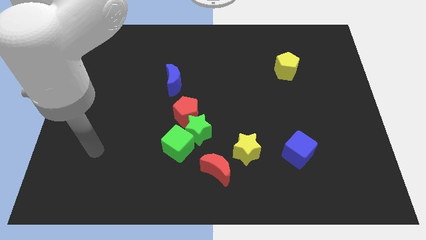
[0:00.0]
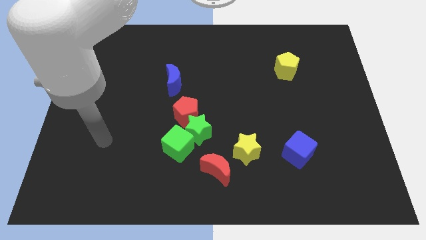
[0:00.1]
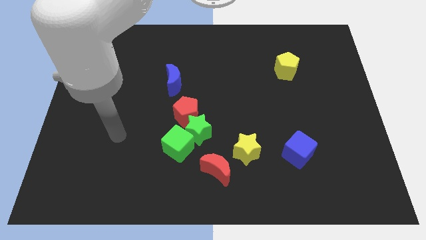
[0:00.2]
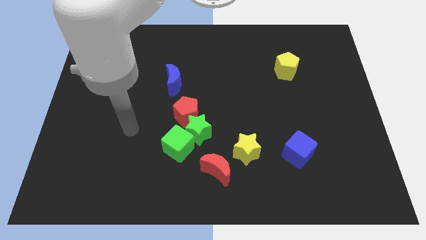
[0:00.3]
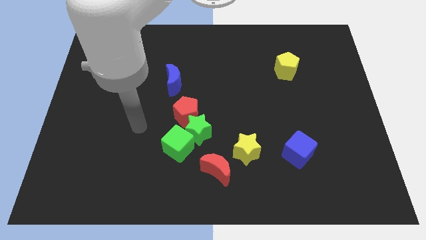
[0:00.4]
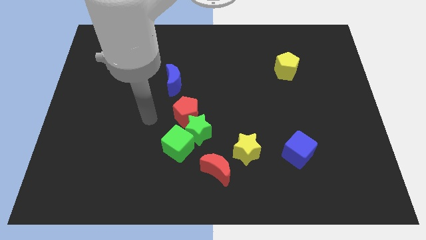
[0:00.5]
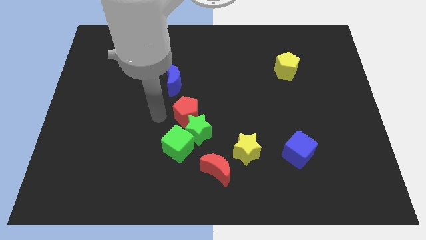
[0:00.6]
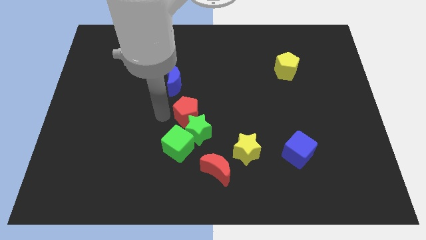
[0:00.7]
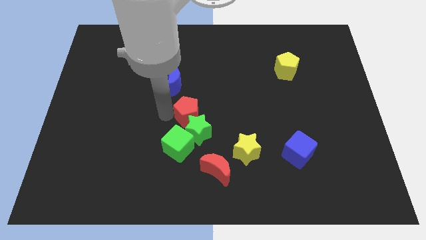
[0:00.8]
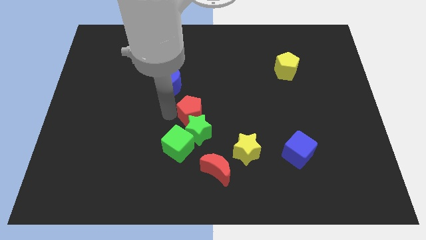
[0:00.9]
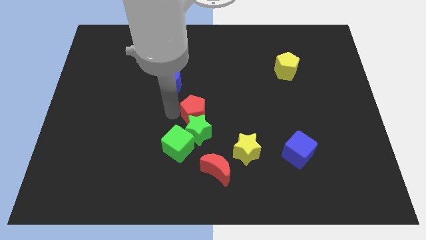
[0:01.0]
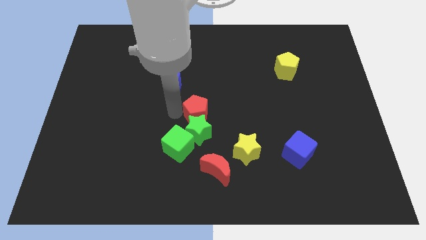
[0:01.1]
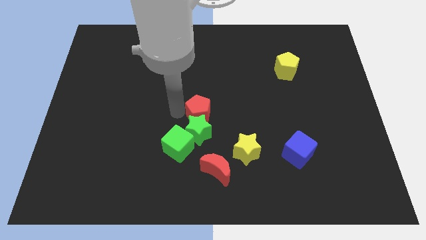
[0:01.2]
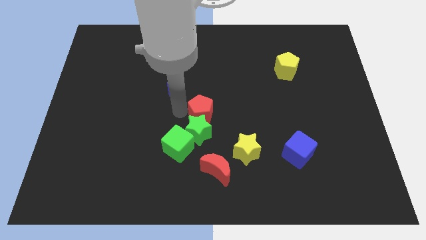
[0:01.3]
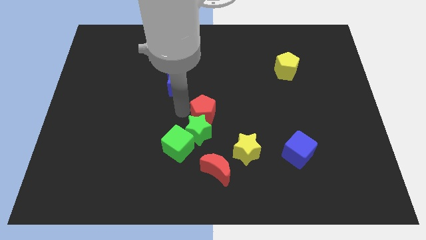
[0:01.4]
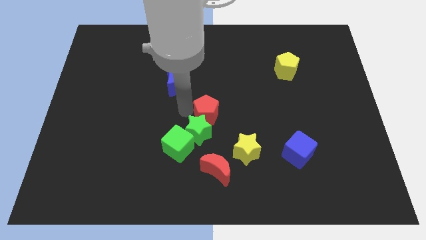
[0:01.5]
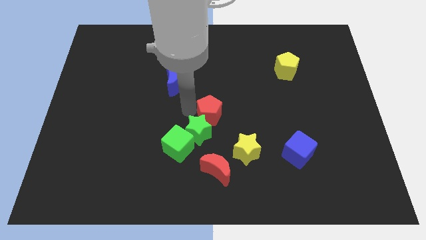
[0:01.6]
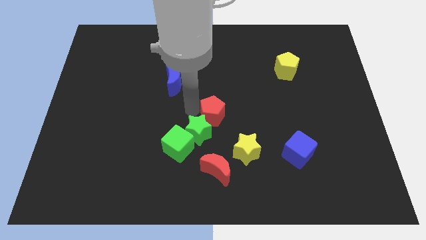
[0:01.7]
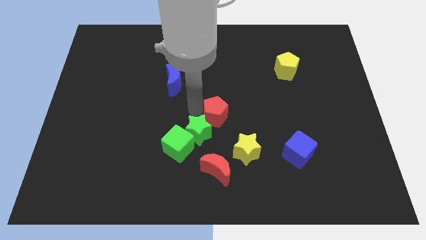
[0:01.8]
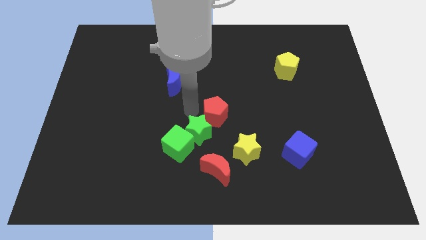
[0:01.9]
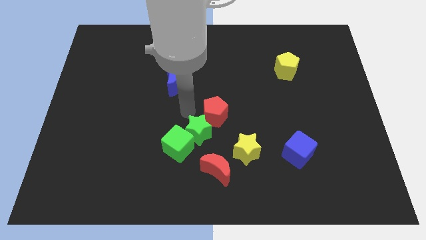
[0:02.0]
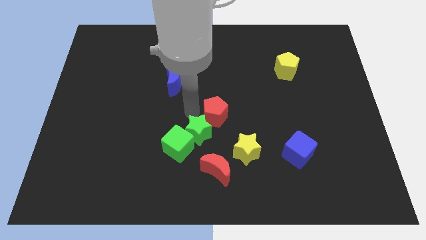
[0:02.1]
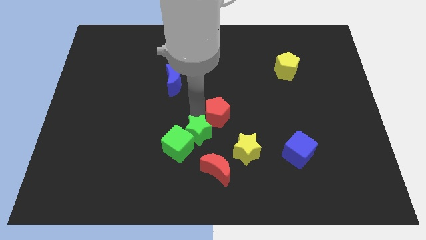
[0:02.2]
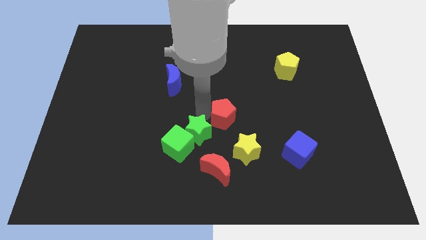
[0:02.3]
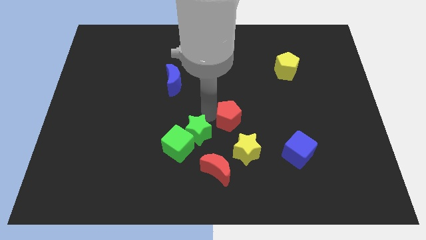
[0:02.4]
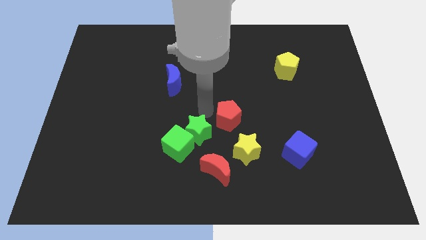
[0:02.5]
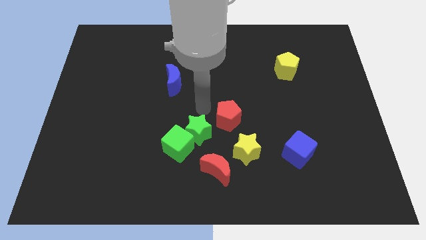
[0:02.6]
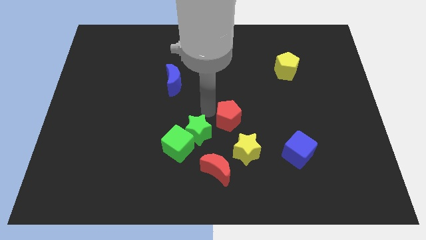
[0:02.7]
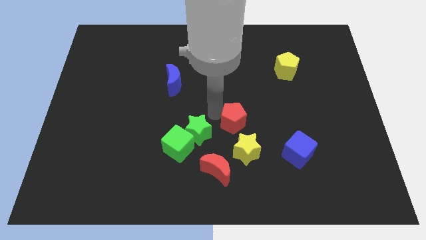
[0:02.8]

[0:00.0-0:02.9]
slightly push the red pentagon down and then right

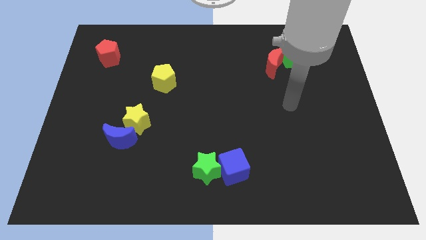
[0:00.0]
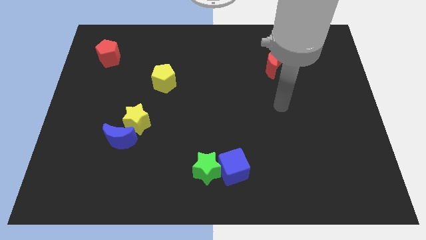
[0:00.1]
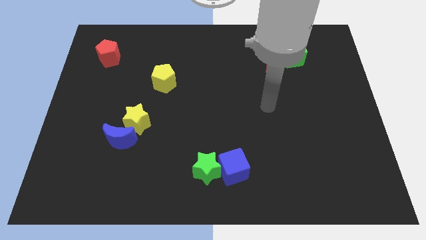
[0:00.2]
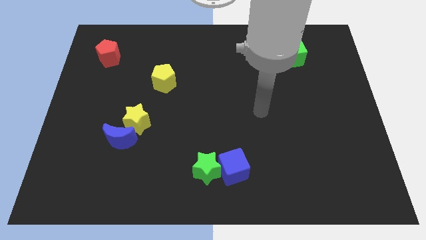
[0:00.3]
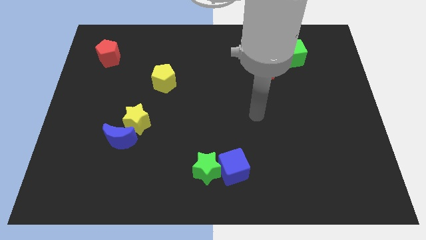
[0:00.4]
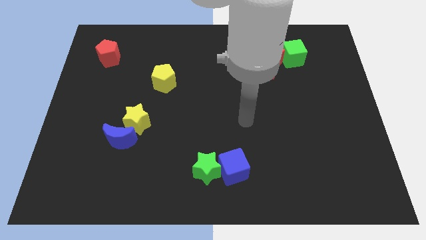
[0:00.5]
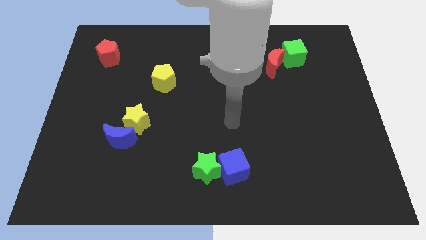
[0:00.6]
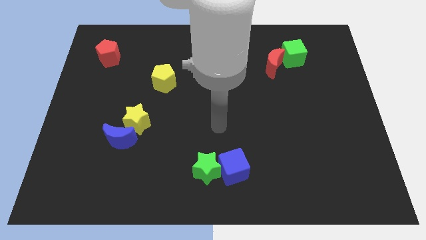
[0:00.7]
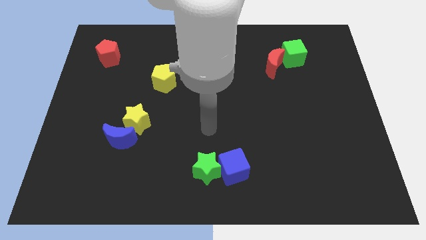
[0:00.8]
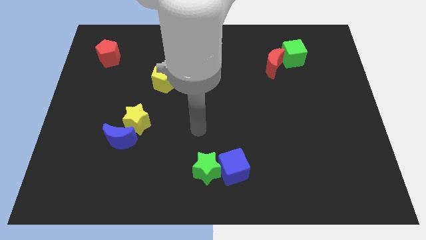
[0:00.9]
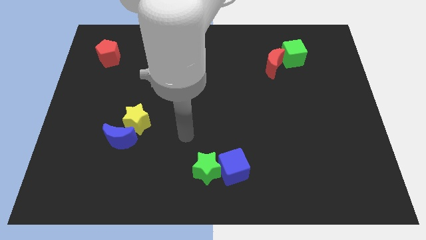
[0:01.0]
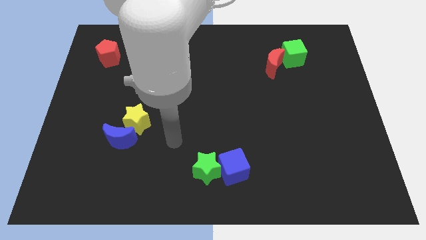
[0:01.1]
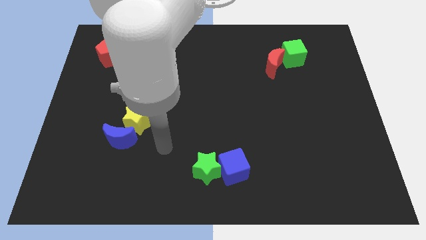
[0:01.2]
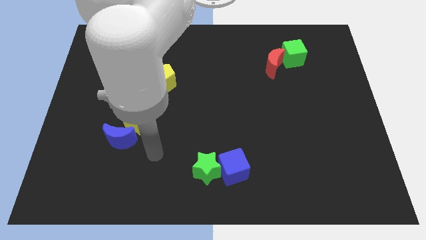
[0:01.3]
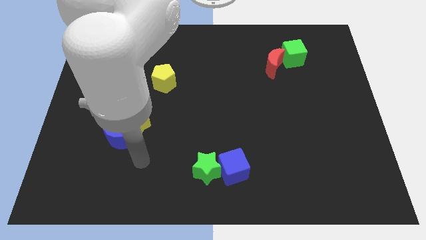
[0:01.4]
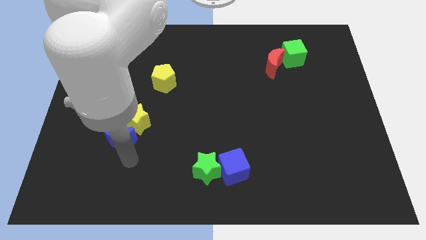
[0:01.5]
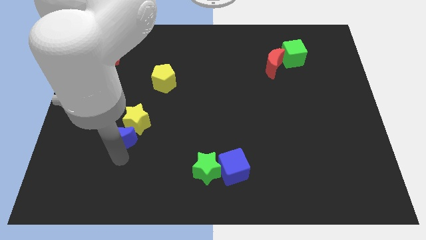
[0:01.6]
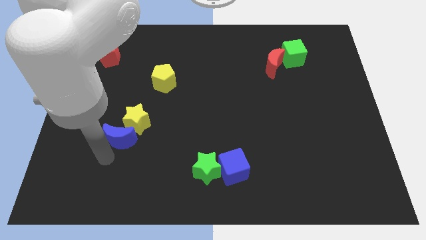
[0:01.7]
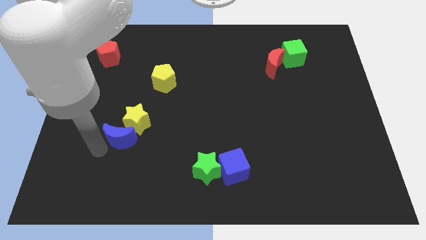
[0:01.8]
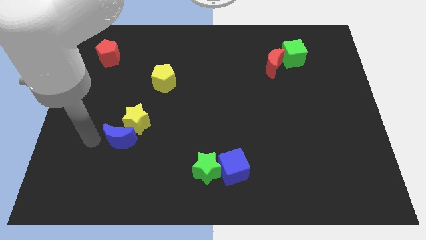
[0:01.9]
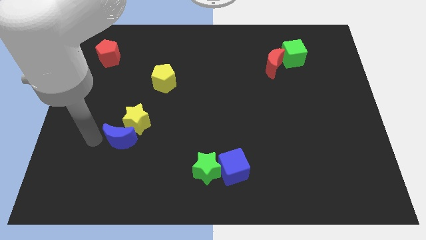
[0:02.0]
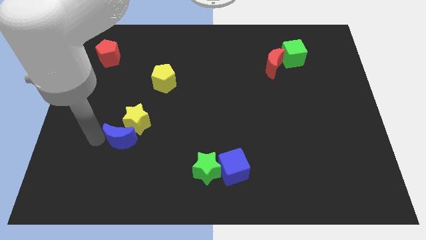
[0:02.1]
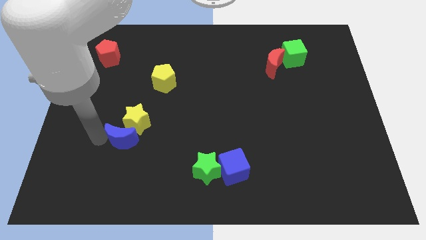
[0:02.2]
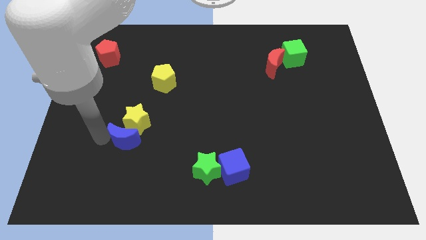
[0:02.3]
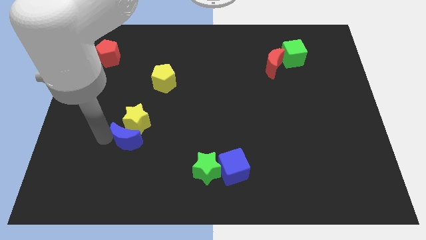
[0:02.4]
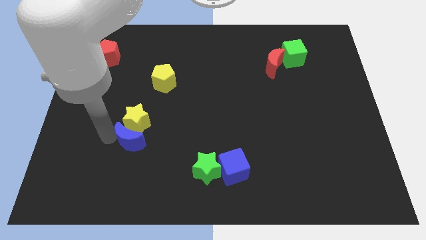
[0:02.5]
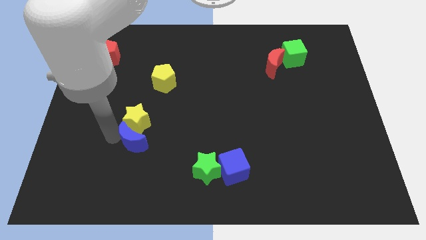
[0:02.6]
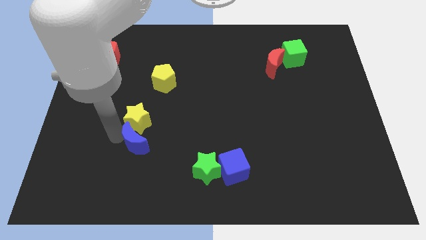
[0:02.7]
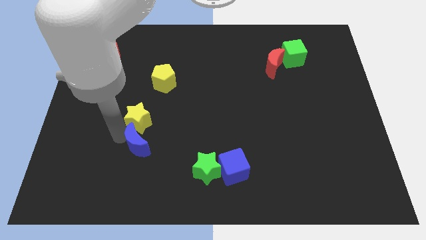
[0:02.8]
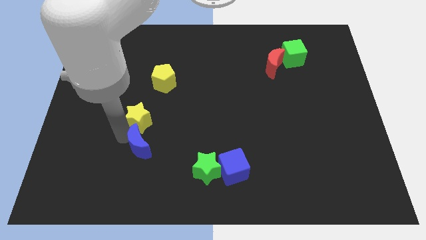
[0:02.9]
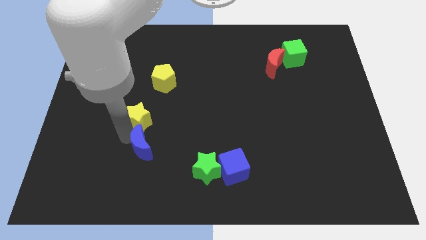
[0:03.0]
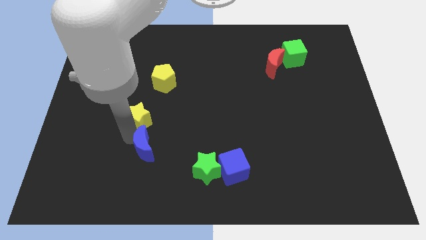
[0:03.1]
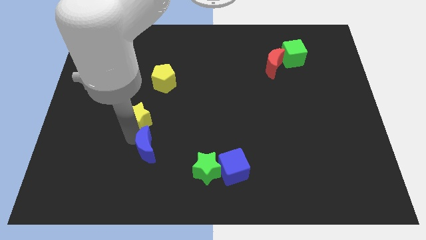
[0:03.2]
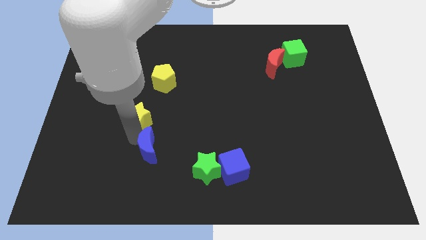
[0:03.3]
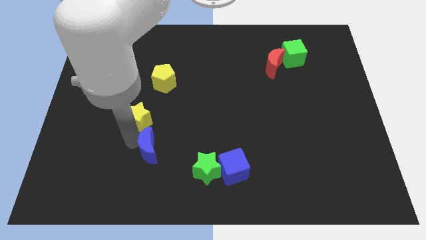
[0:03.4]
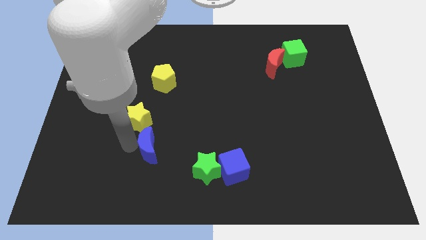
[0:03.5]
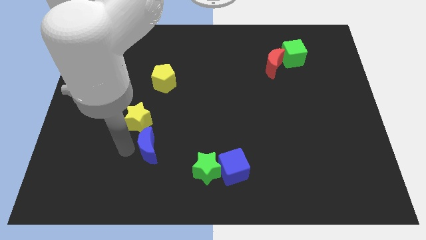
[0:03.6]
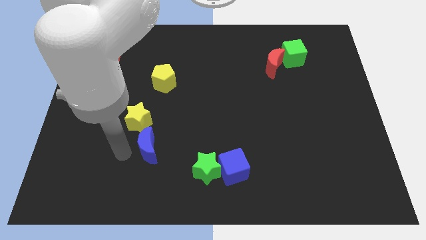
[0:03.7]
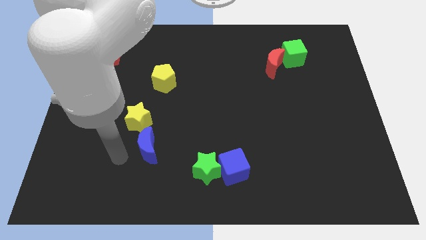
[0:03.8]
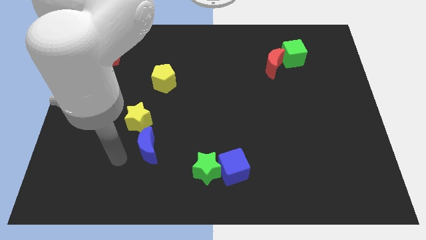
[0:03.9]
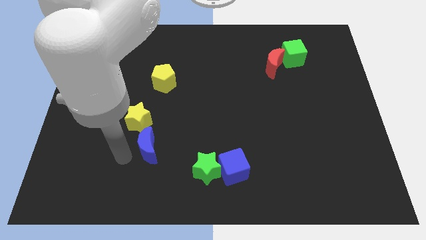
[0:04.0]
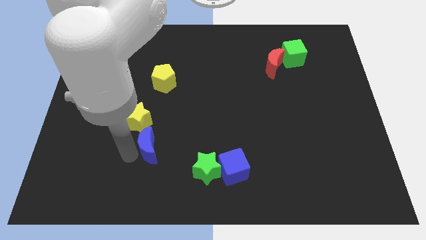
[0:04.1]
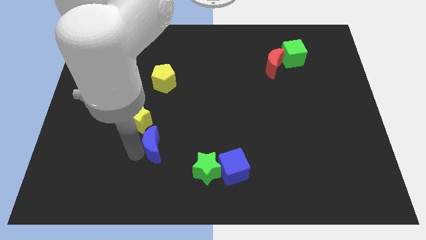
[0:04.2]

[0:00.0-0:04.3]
slide the blue moon a little to the right

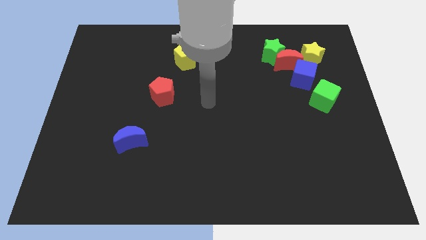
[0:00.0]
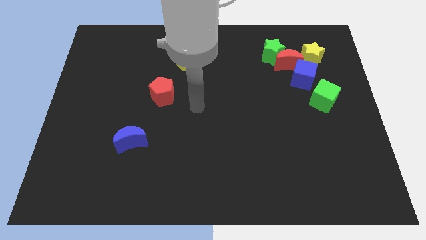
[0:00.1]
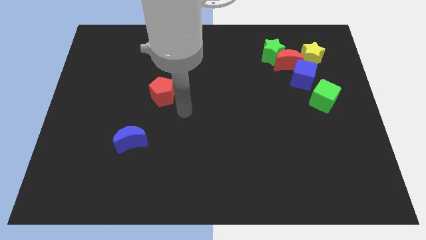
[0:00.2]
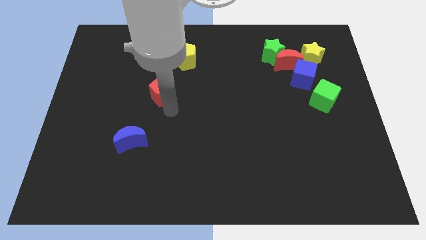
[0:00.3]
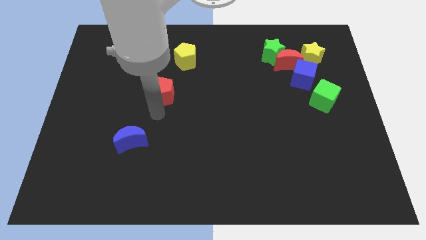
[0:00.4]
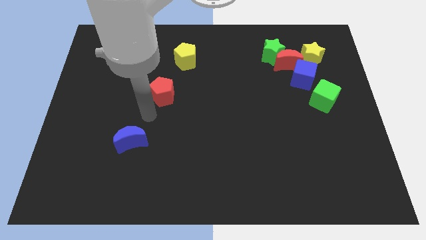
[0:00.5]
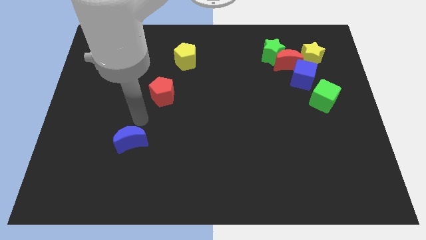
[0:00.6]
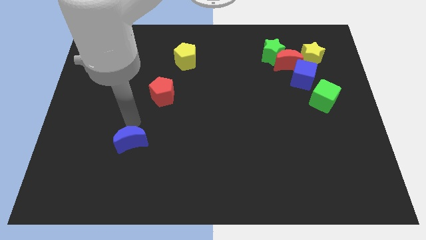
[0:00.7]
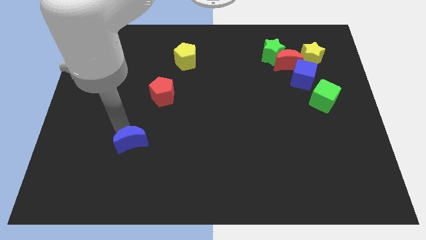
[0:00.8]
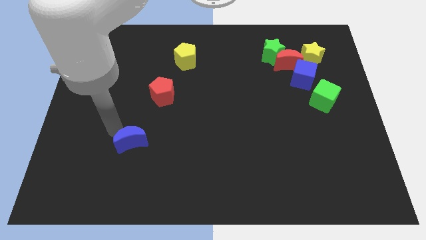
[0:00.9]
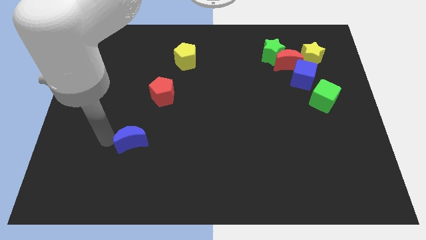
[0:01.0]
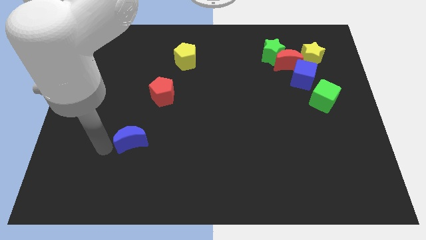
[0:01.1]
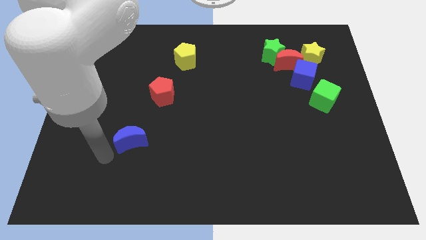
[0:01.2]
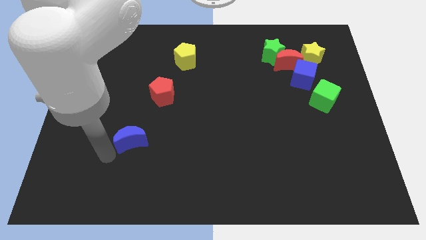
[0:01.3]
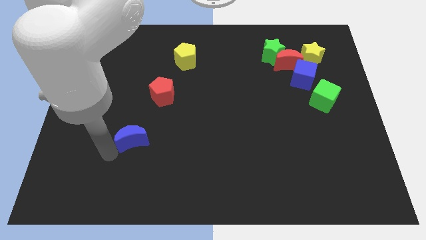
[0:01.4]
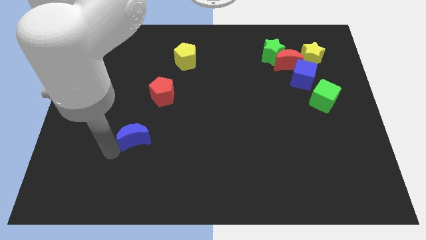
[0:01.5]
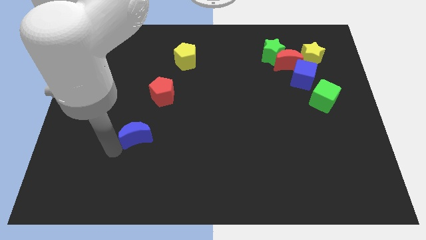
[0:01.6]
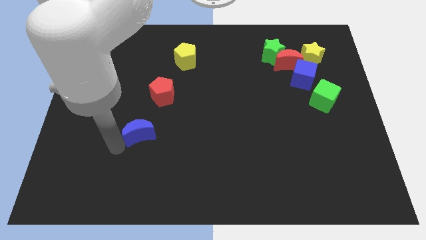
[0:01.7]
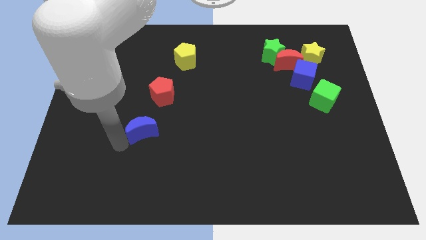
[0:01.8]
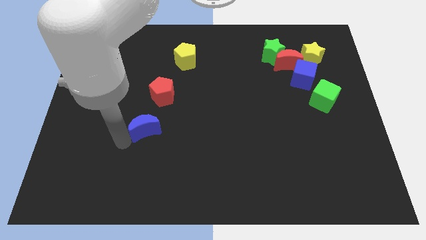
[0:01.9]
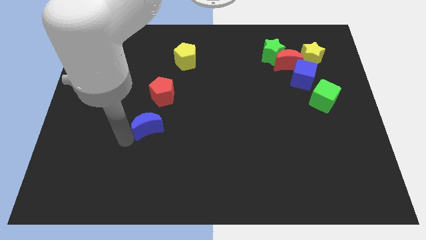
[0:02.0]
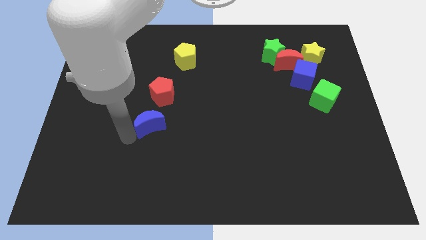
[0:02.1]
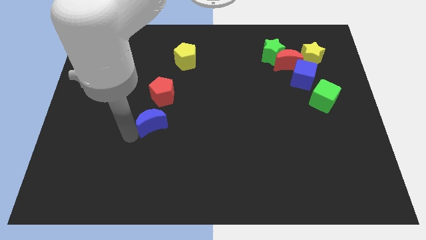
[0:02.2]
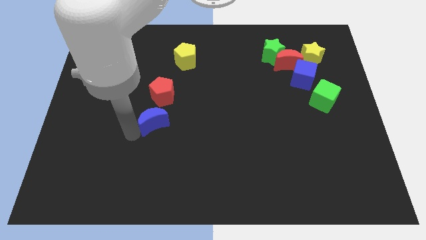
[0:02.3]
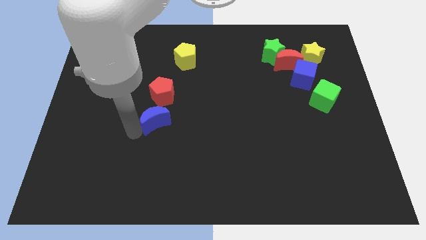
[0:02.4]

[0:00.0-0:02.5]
slide the blue moon up and right somewhat
